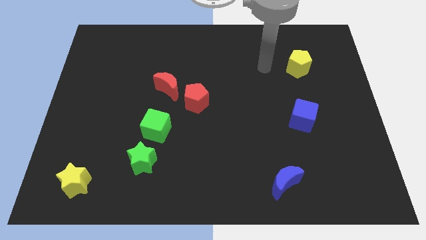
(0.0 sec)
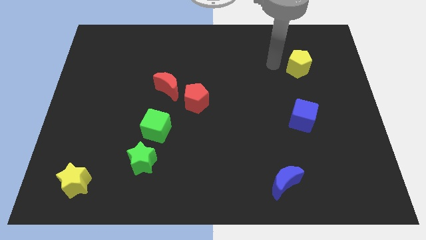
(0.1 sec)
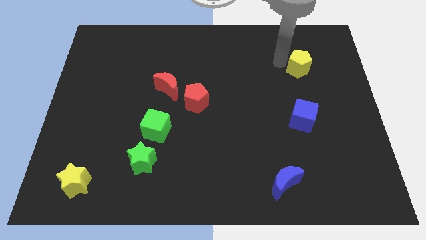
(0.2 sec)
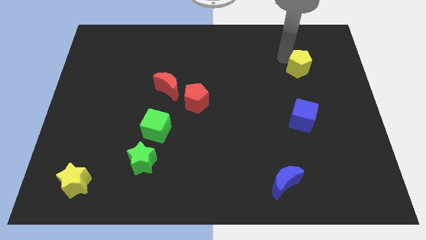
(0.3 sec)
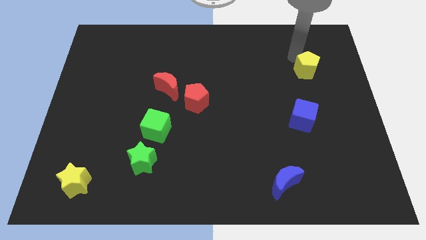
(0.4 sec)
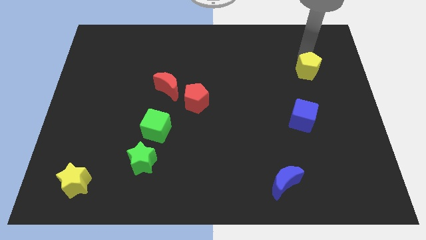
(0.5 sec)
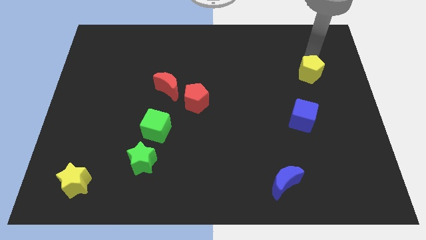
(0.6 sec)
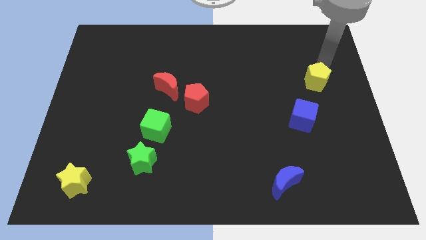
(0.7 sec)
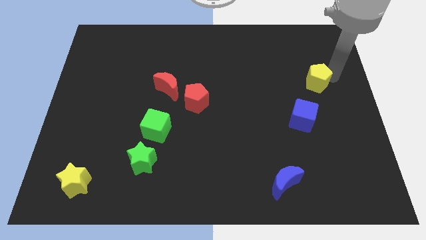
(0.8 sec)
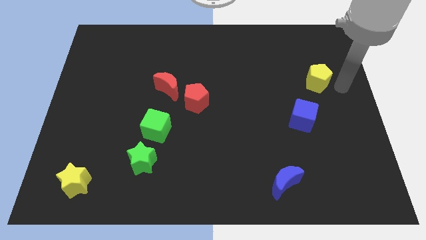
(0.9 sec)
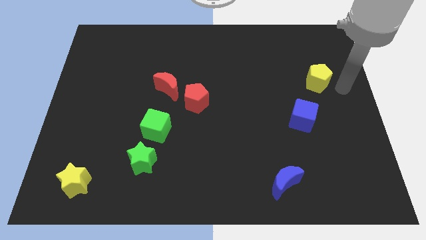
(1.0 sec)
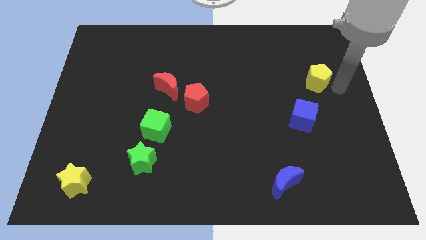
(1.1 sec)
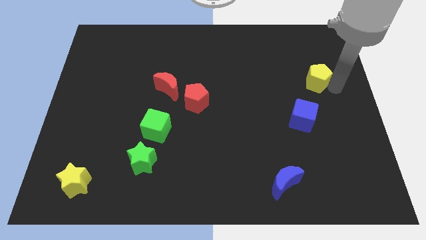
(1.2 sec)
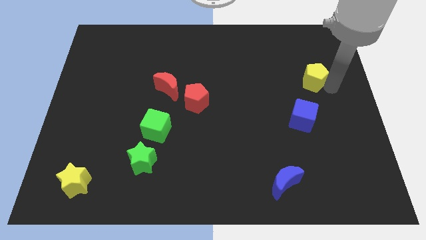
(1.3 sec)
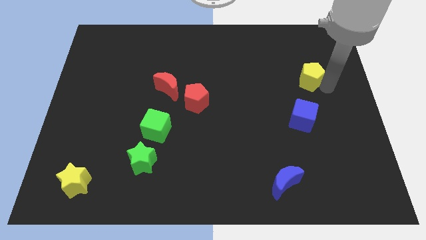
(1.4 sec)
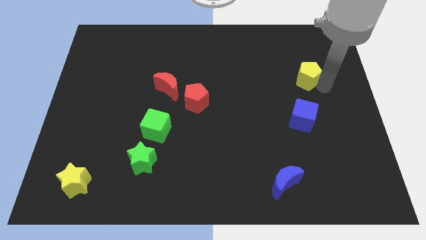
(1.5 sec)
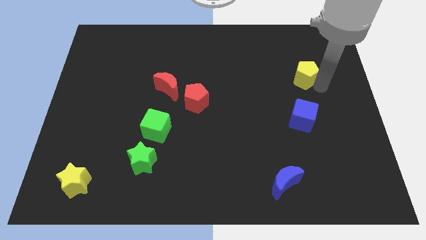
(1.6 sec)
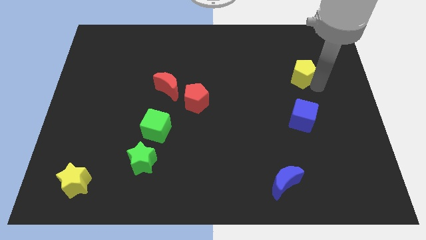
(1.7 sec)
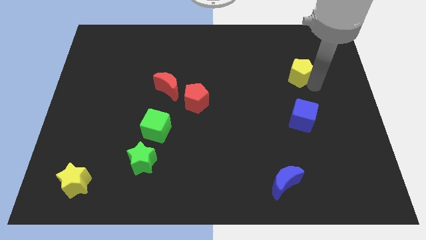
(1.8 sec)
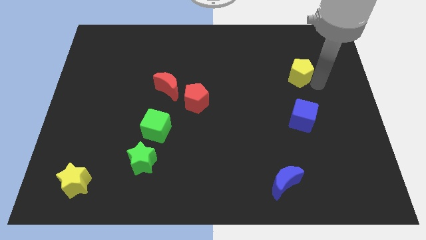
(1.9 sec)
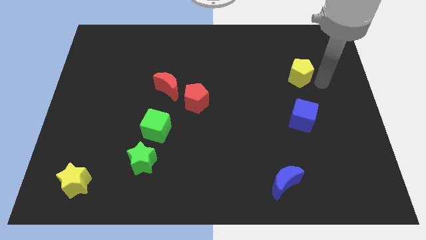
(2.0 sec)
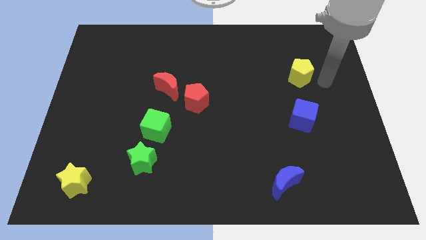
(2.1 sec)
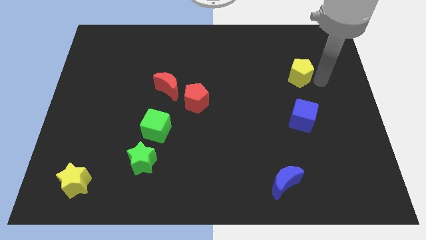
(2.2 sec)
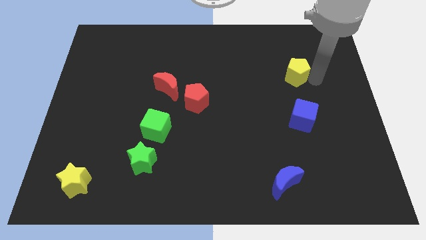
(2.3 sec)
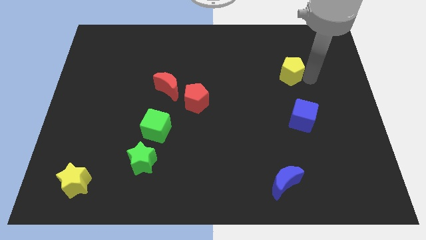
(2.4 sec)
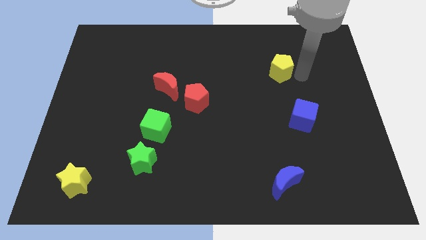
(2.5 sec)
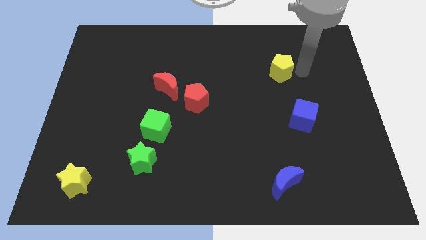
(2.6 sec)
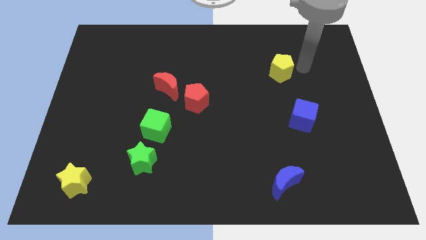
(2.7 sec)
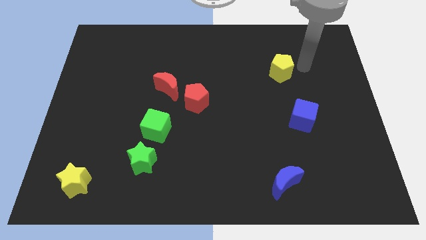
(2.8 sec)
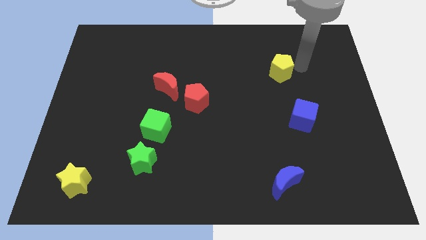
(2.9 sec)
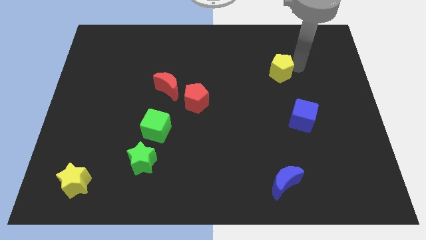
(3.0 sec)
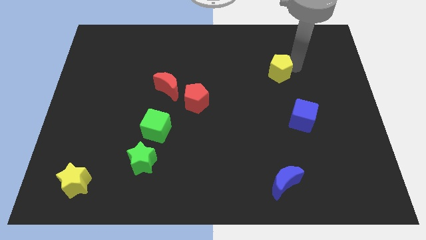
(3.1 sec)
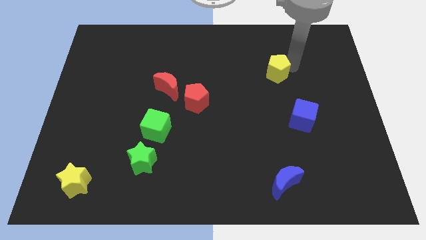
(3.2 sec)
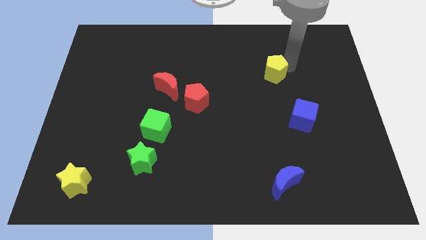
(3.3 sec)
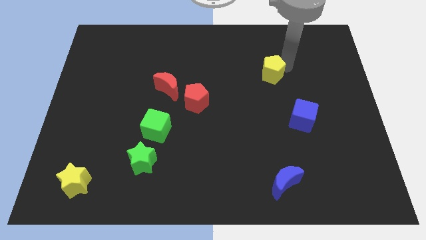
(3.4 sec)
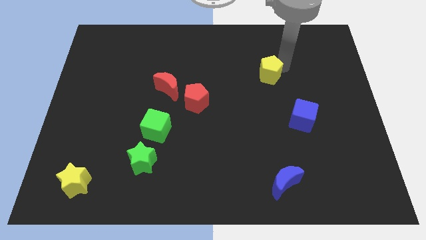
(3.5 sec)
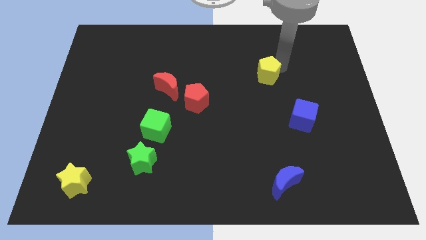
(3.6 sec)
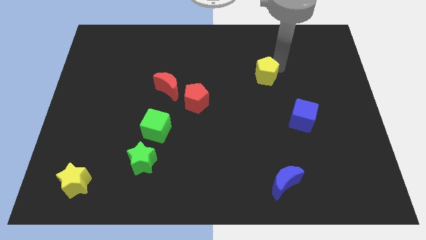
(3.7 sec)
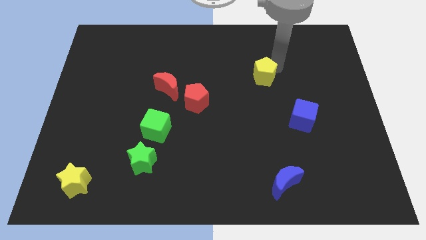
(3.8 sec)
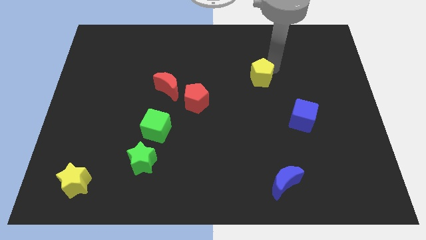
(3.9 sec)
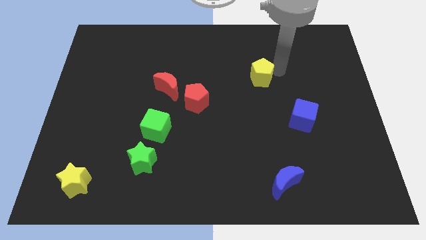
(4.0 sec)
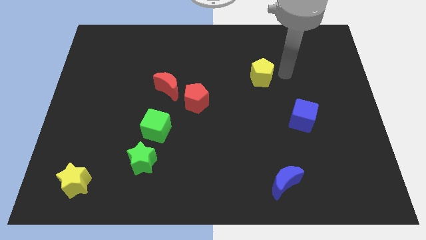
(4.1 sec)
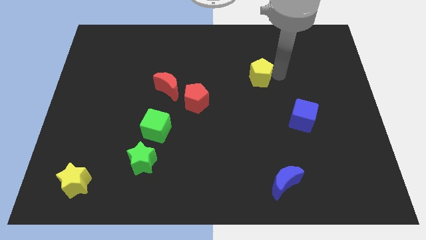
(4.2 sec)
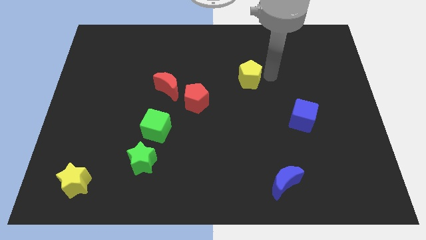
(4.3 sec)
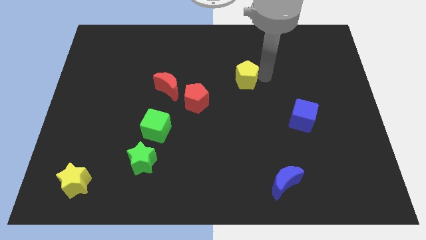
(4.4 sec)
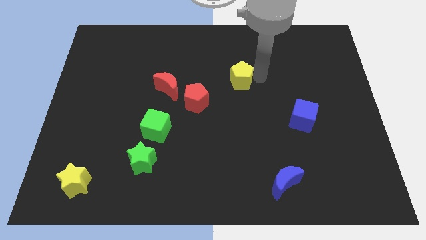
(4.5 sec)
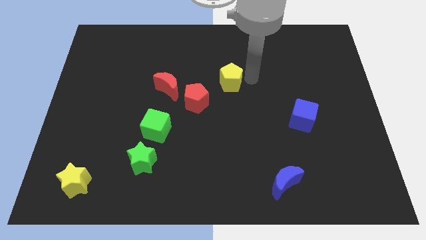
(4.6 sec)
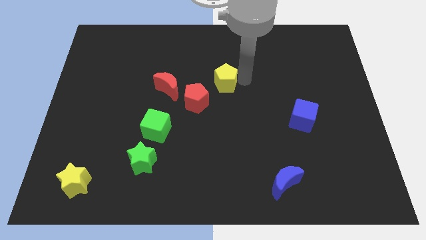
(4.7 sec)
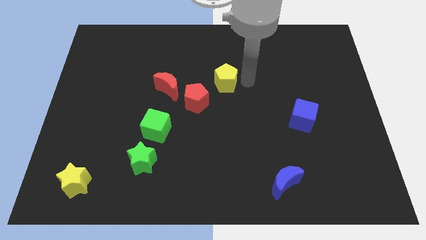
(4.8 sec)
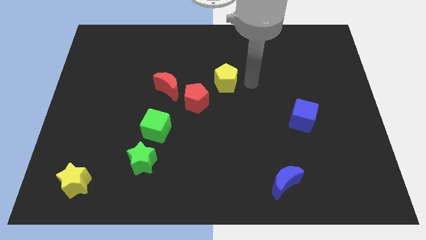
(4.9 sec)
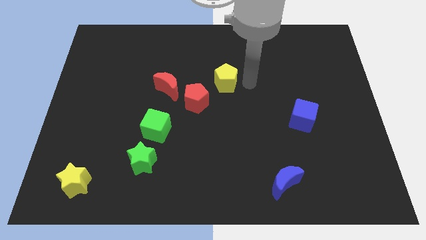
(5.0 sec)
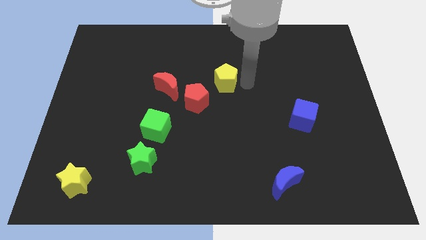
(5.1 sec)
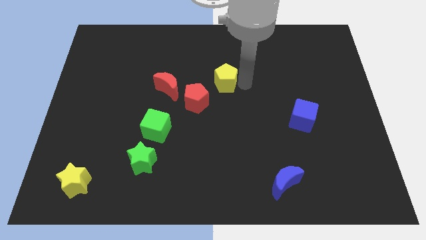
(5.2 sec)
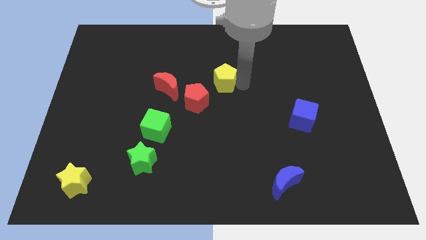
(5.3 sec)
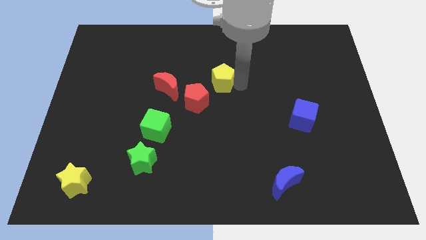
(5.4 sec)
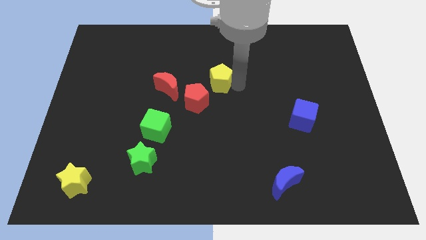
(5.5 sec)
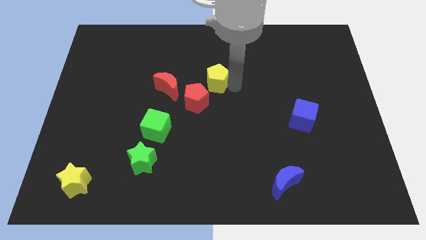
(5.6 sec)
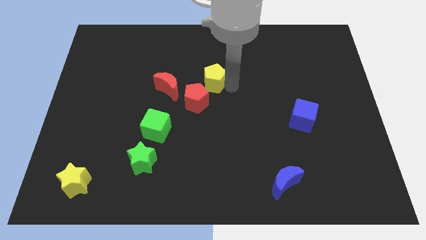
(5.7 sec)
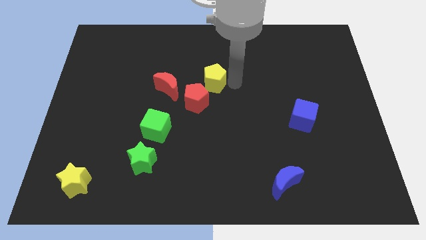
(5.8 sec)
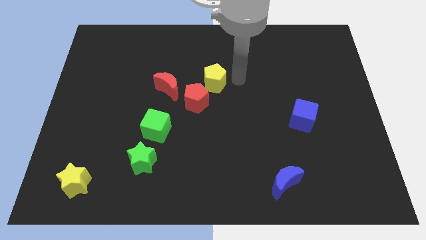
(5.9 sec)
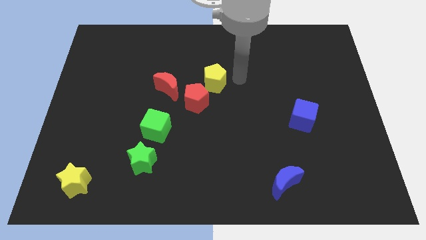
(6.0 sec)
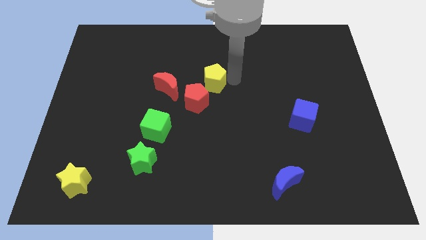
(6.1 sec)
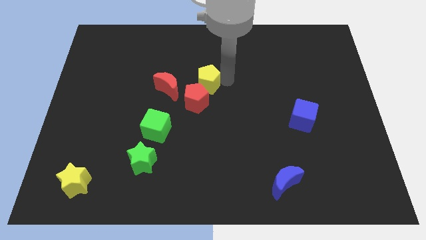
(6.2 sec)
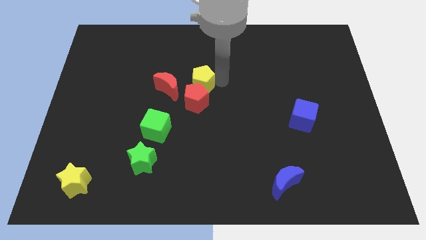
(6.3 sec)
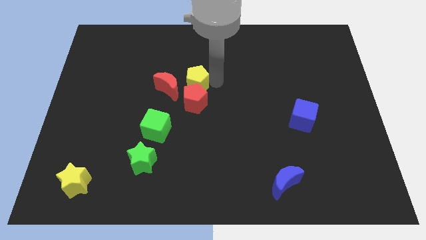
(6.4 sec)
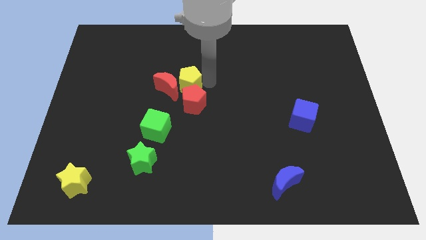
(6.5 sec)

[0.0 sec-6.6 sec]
push the yellow pentagon next to the red moon

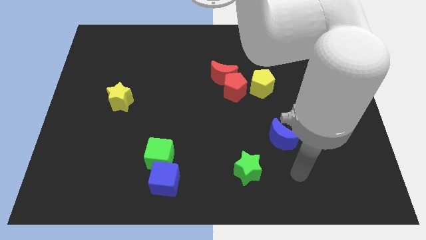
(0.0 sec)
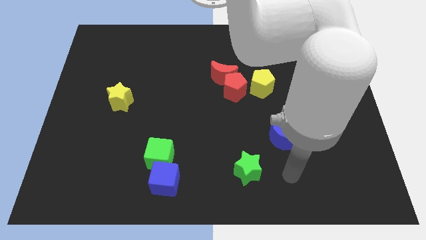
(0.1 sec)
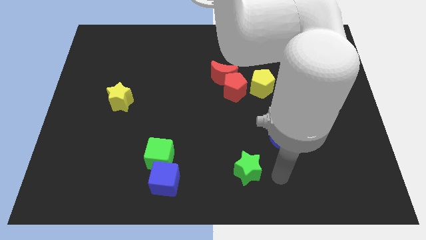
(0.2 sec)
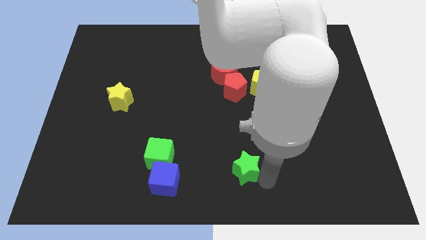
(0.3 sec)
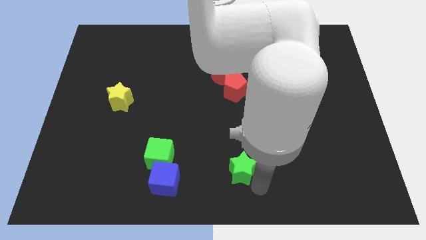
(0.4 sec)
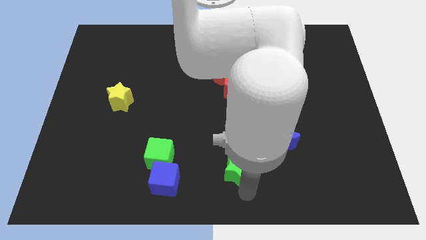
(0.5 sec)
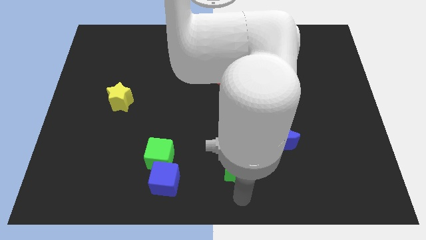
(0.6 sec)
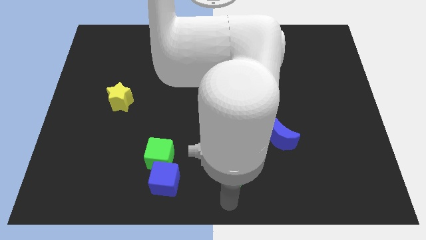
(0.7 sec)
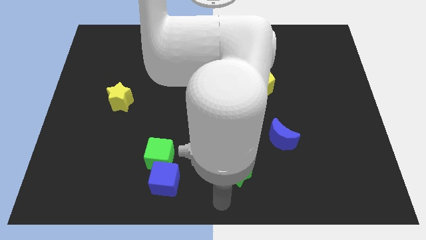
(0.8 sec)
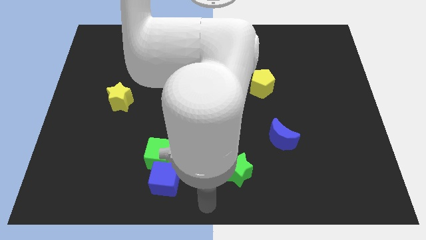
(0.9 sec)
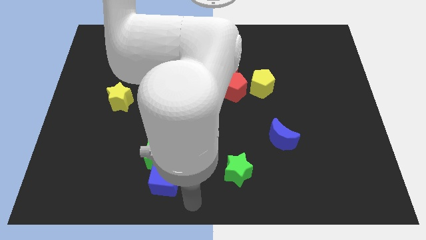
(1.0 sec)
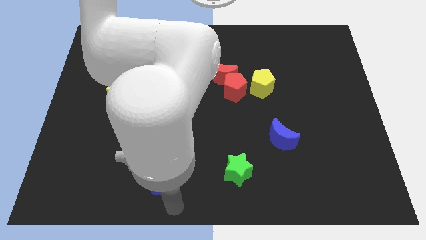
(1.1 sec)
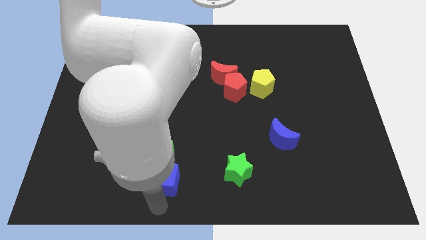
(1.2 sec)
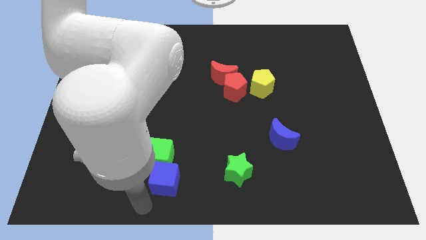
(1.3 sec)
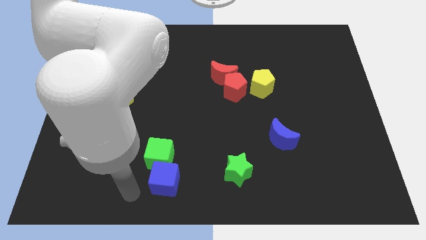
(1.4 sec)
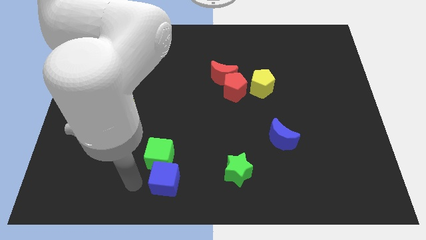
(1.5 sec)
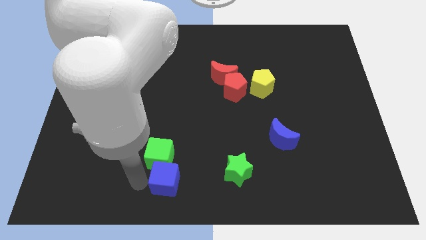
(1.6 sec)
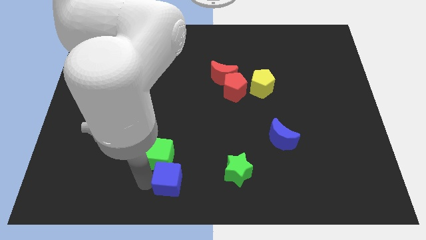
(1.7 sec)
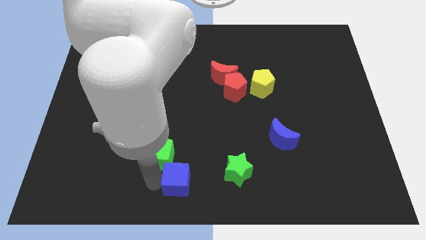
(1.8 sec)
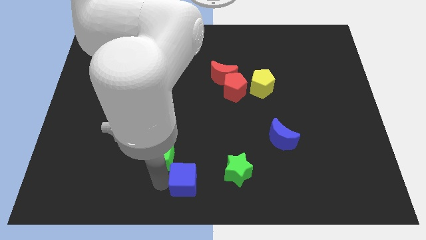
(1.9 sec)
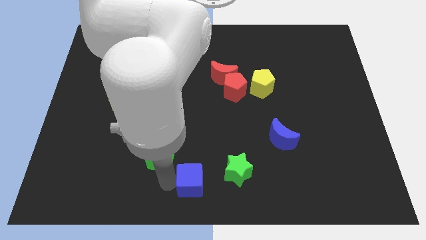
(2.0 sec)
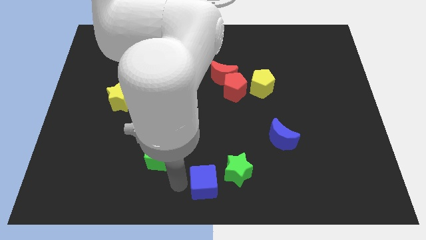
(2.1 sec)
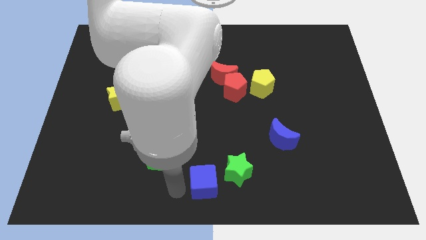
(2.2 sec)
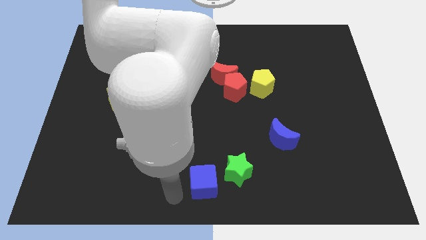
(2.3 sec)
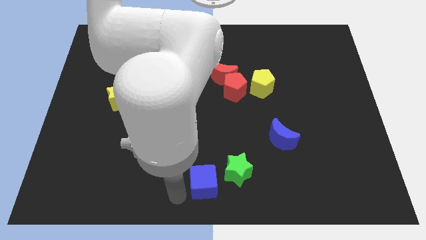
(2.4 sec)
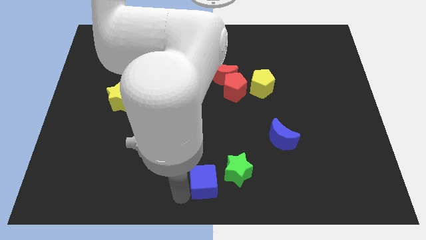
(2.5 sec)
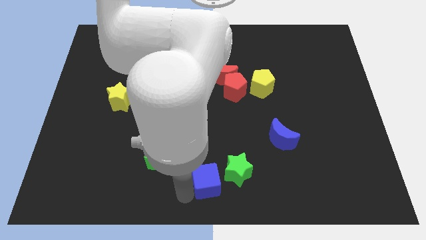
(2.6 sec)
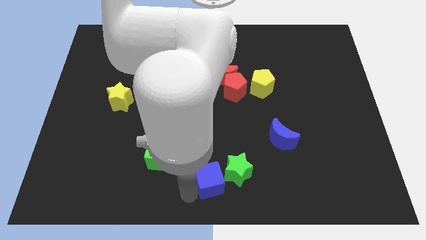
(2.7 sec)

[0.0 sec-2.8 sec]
push the blue cube towards the green star
